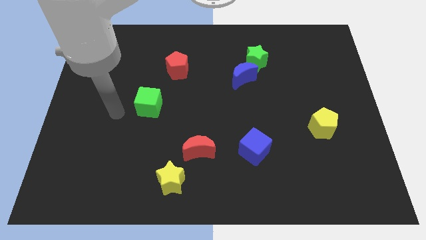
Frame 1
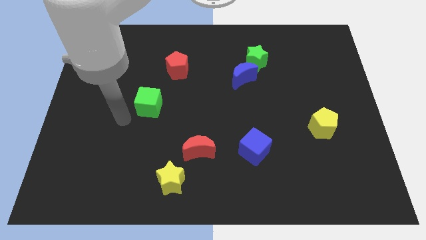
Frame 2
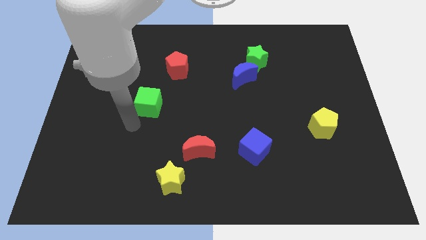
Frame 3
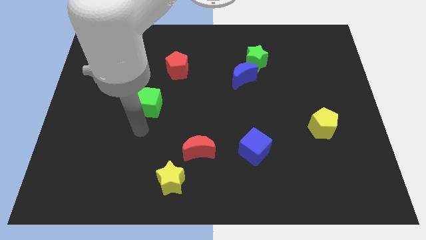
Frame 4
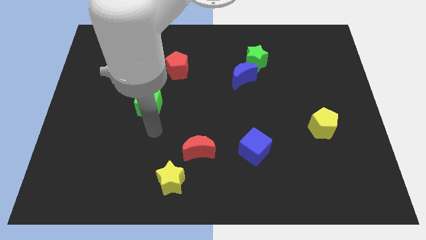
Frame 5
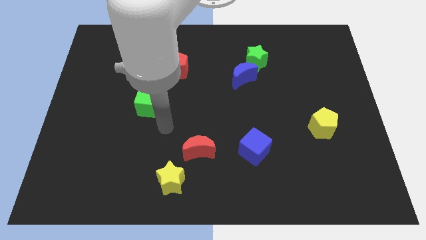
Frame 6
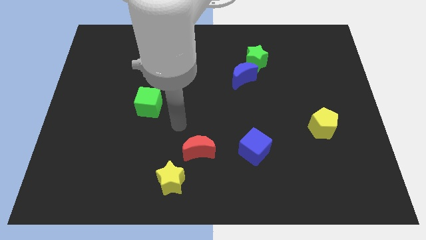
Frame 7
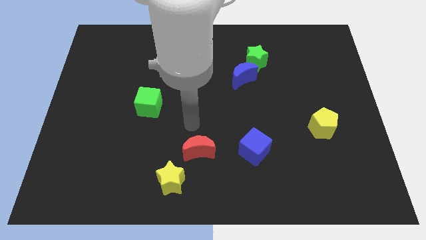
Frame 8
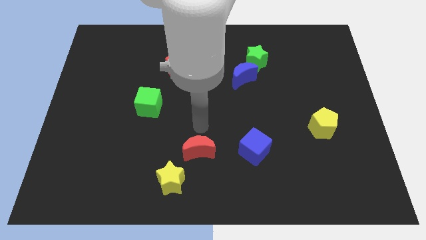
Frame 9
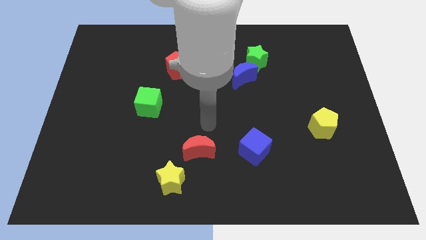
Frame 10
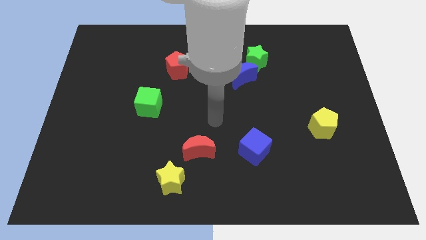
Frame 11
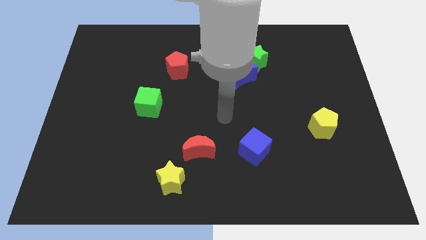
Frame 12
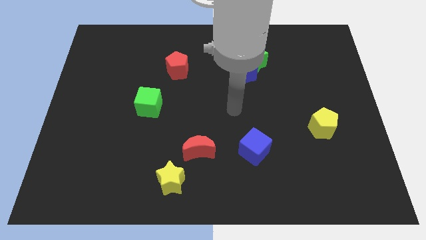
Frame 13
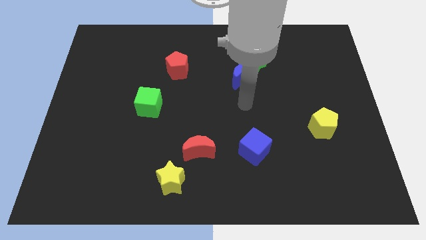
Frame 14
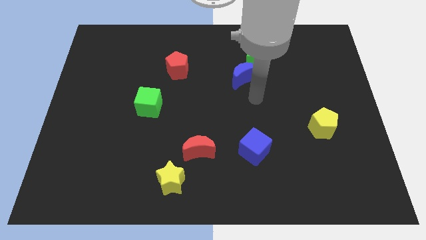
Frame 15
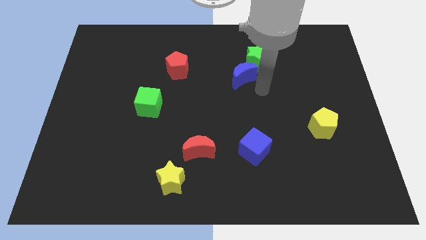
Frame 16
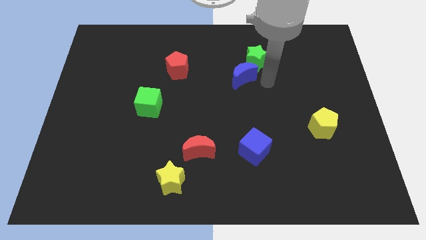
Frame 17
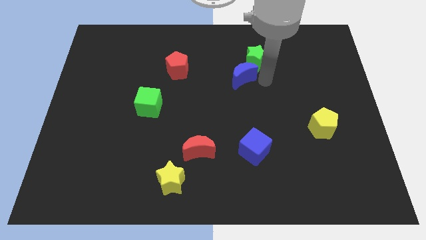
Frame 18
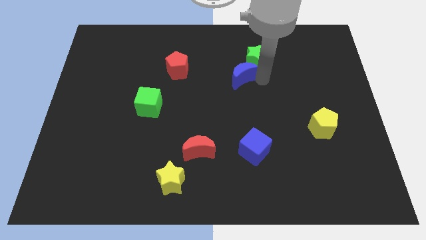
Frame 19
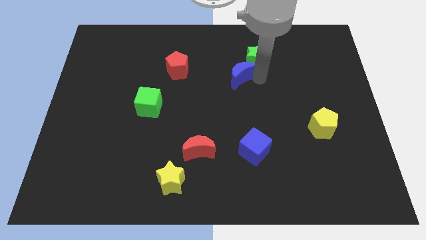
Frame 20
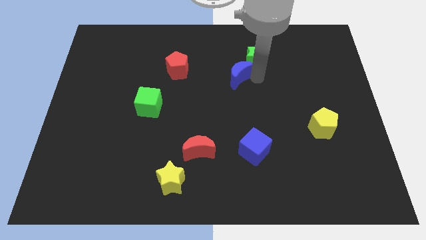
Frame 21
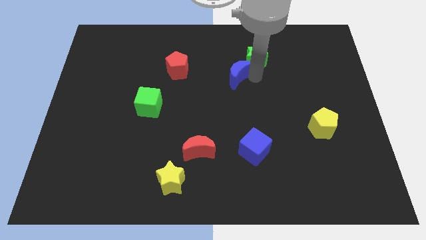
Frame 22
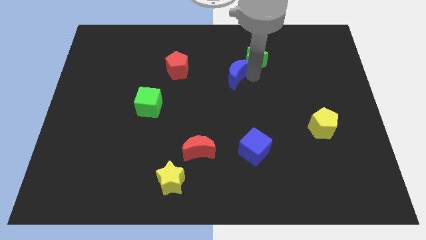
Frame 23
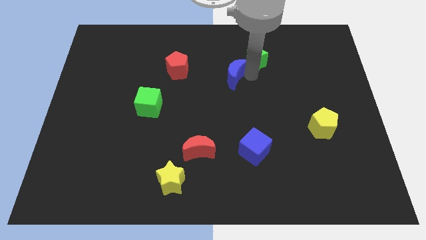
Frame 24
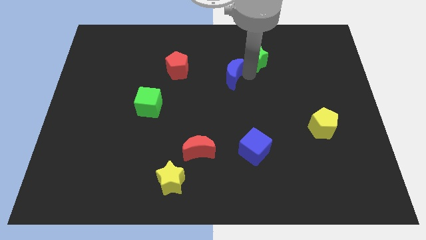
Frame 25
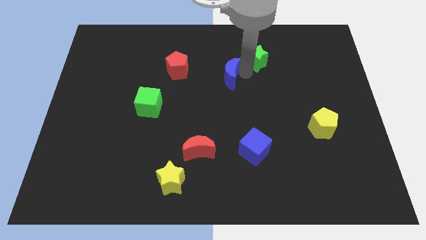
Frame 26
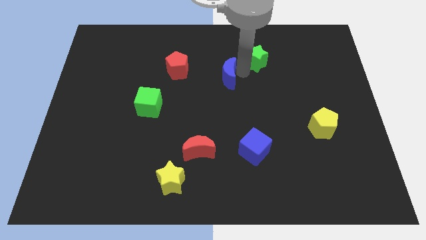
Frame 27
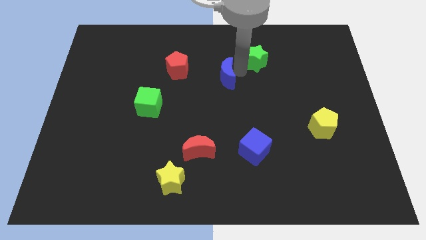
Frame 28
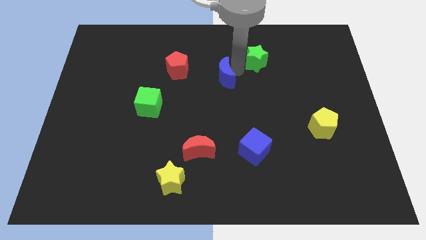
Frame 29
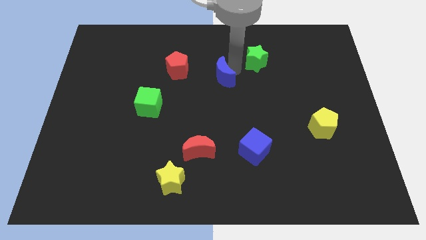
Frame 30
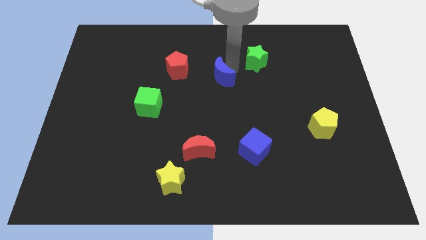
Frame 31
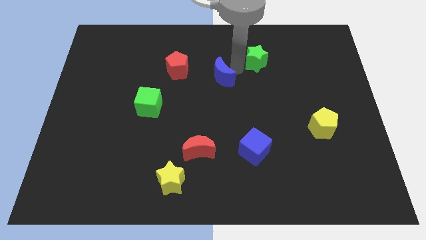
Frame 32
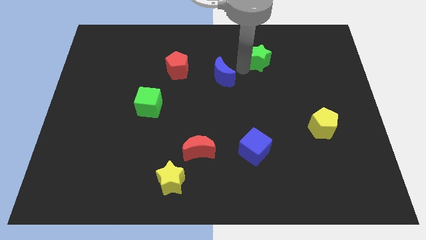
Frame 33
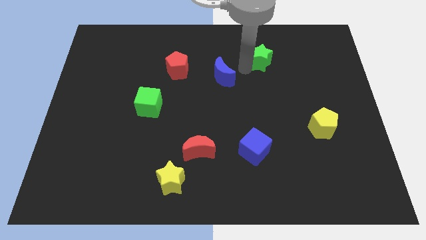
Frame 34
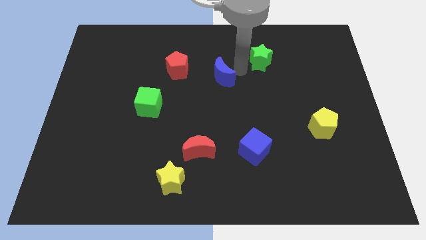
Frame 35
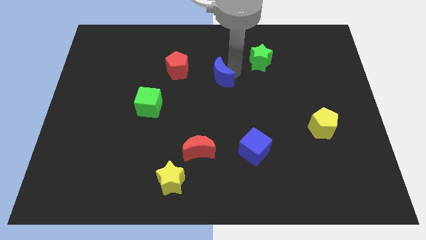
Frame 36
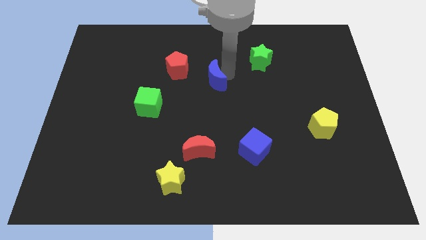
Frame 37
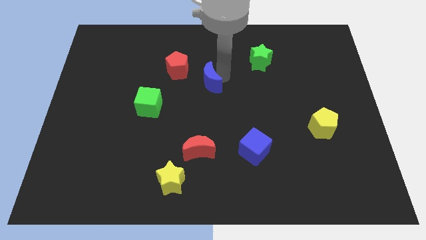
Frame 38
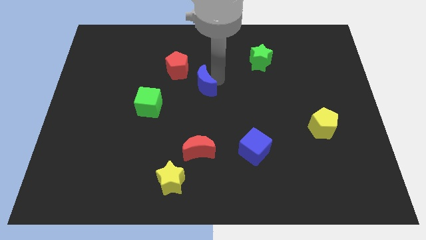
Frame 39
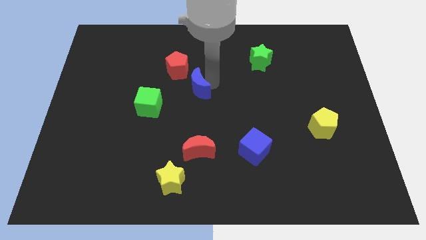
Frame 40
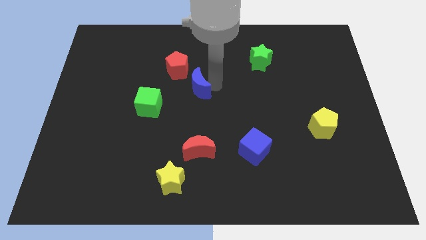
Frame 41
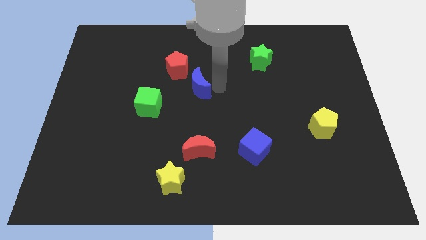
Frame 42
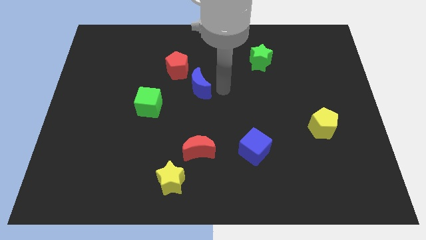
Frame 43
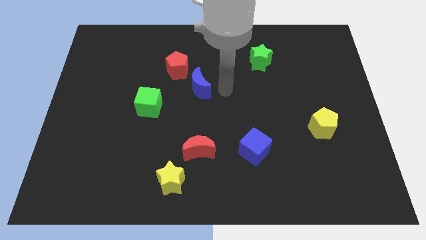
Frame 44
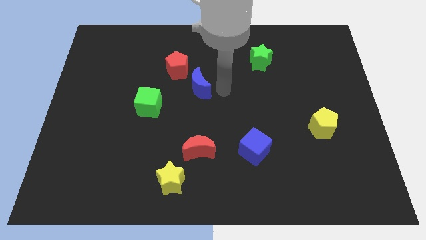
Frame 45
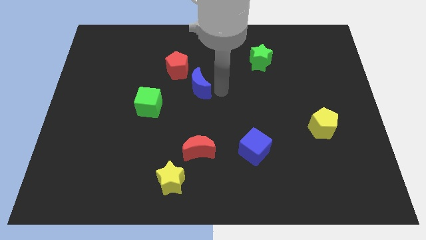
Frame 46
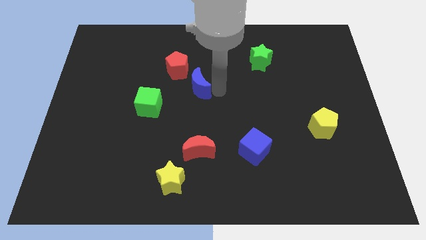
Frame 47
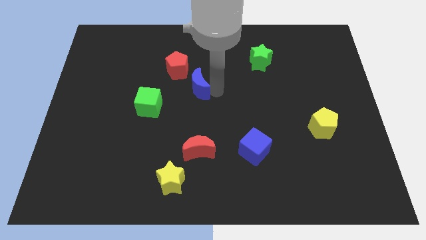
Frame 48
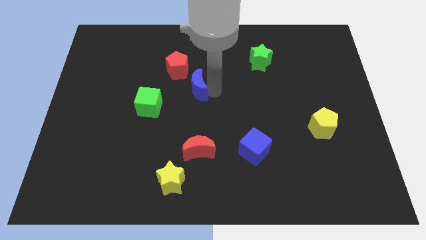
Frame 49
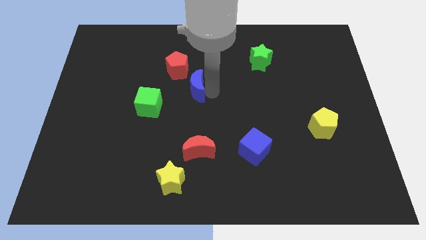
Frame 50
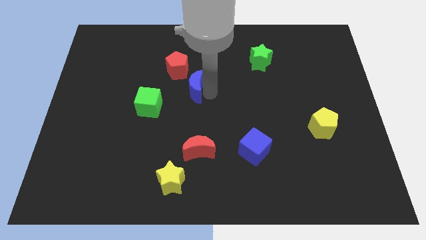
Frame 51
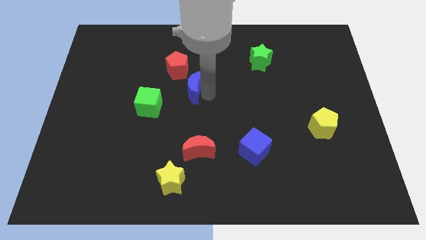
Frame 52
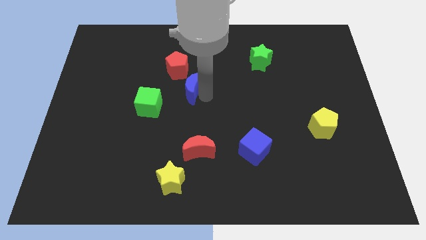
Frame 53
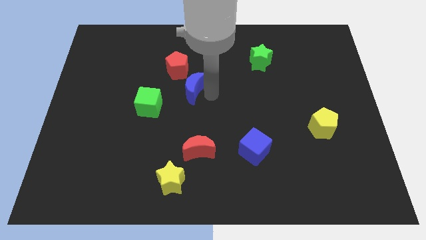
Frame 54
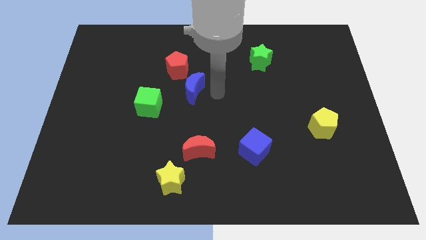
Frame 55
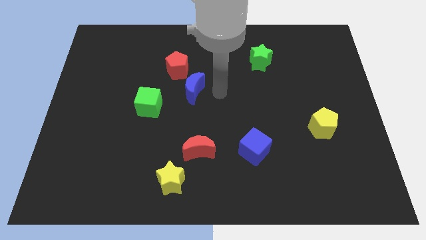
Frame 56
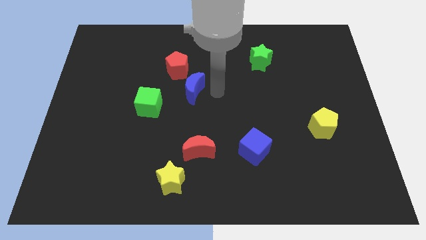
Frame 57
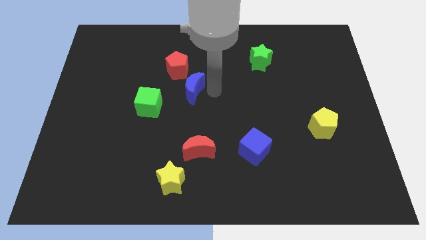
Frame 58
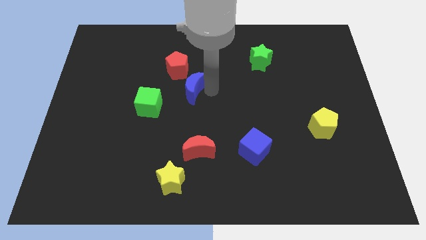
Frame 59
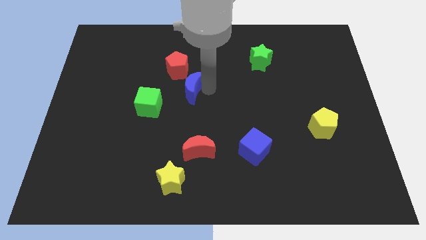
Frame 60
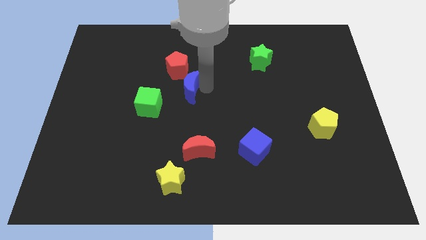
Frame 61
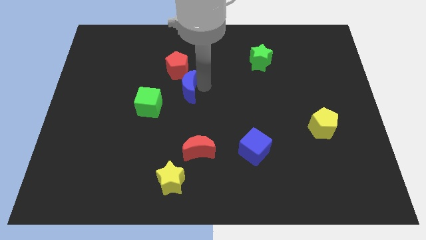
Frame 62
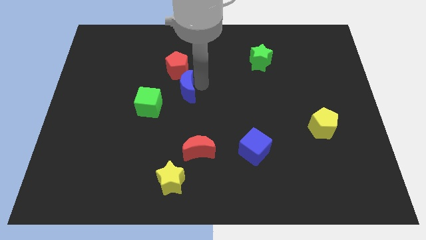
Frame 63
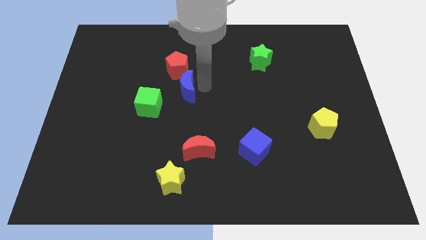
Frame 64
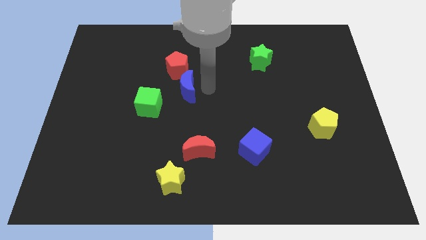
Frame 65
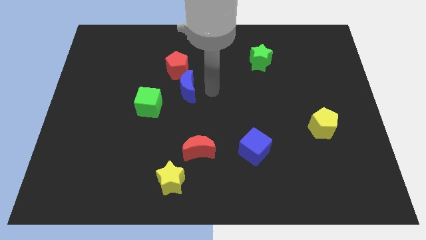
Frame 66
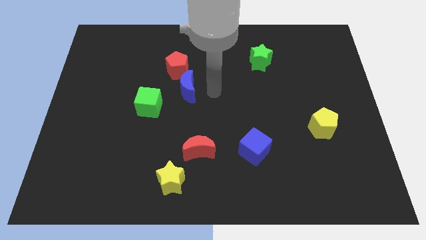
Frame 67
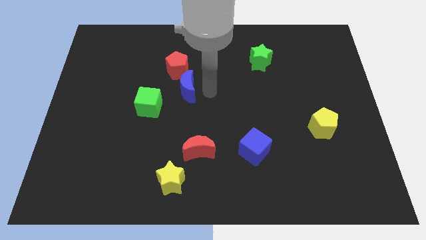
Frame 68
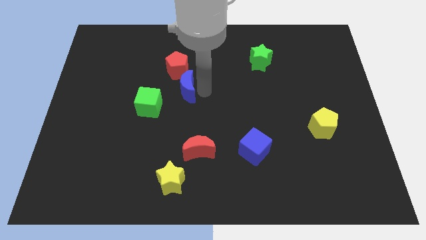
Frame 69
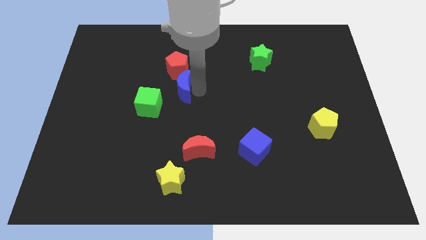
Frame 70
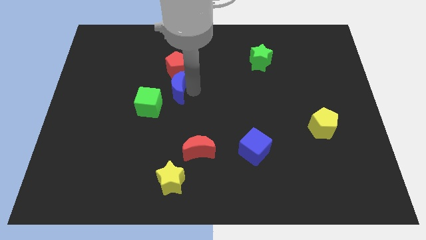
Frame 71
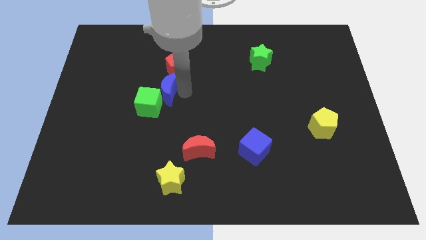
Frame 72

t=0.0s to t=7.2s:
move the blue moon above the green cube

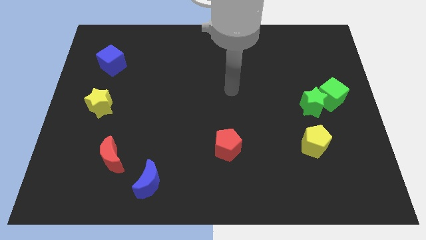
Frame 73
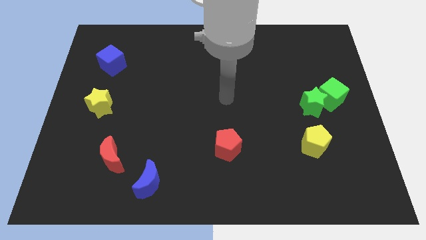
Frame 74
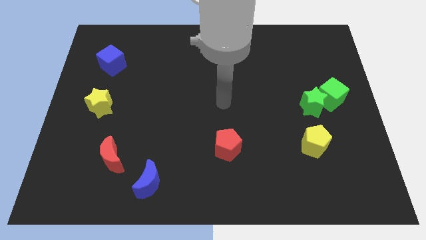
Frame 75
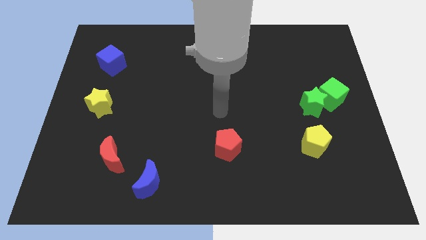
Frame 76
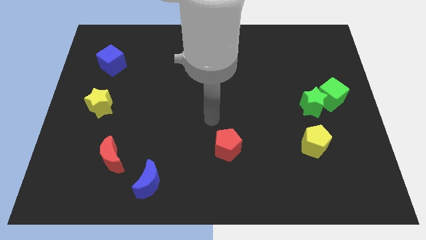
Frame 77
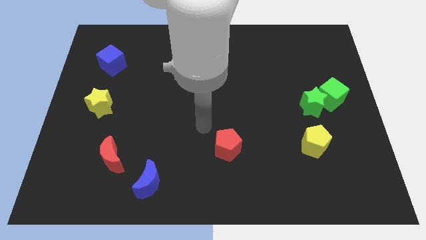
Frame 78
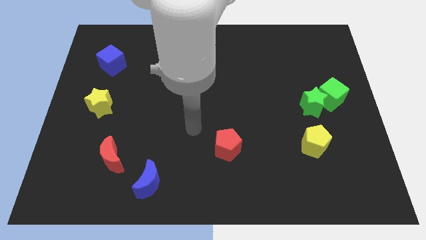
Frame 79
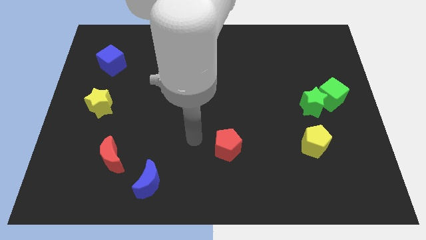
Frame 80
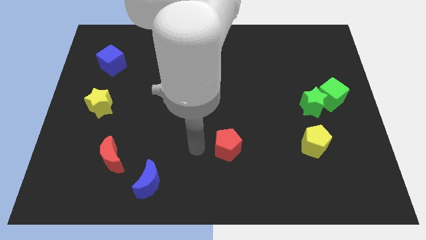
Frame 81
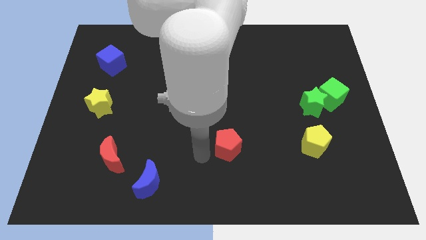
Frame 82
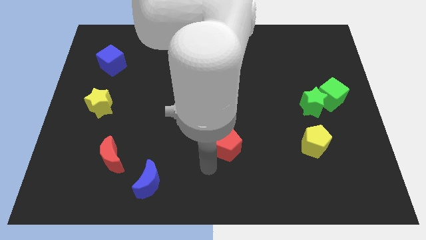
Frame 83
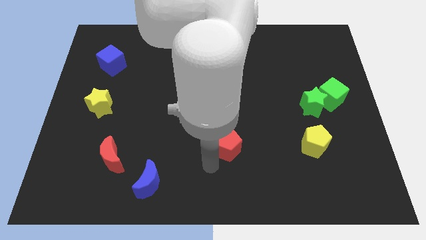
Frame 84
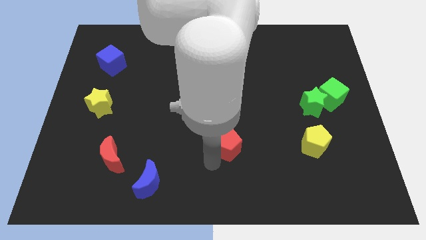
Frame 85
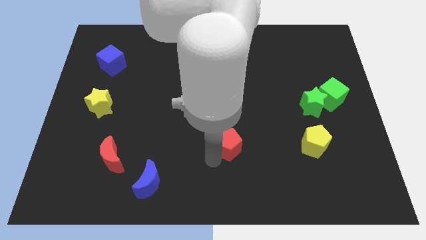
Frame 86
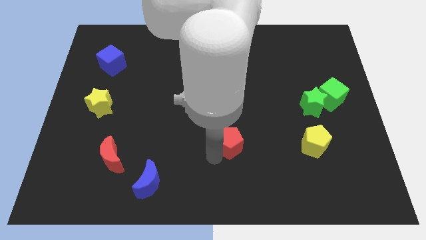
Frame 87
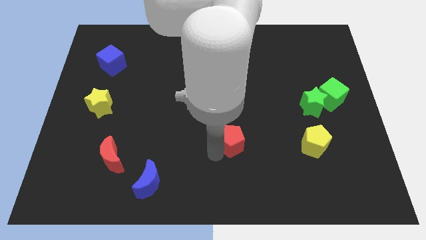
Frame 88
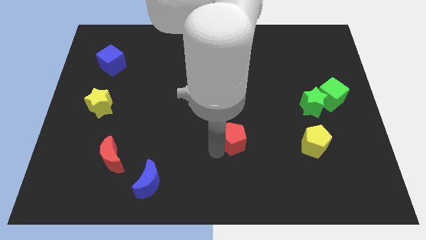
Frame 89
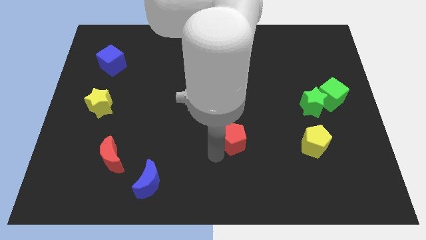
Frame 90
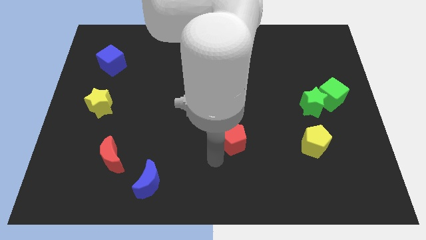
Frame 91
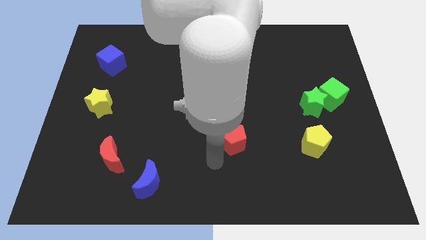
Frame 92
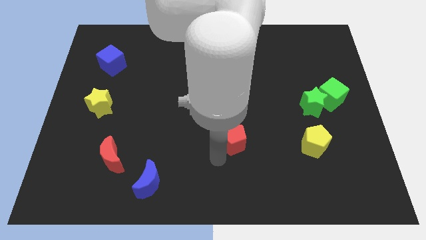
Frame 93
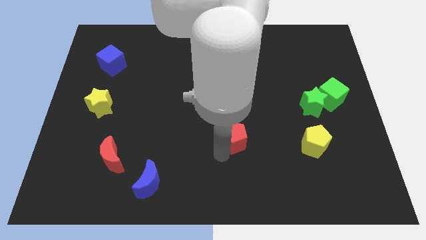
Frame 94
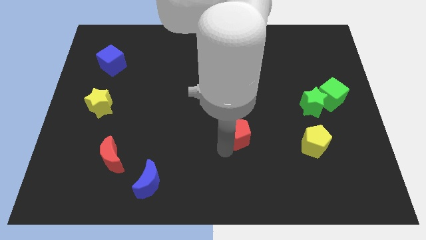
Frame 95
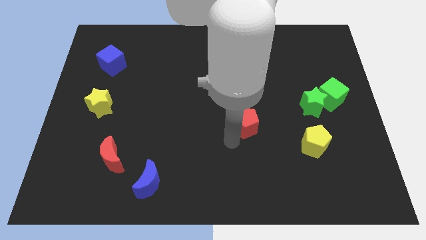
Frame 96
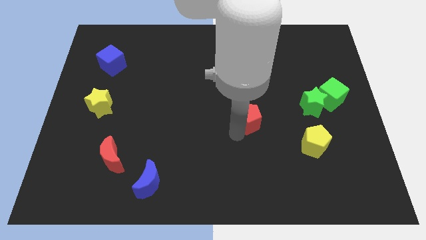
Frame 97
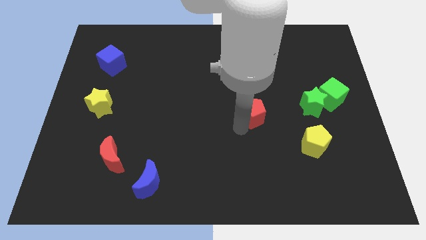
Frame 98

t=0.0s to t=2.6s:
move the red pentagon left of the green star
